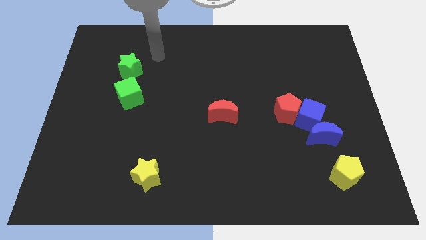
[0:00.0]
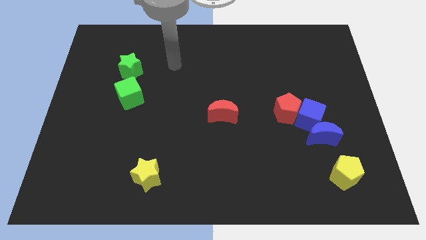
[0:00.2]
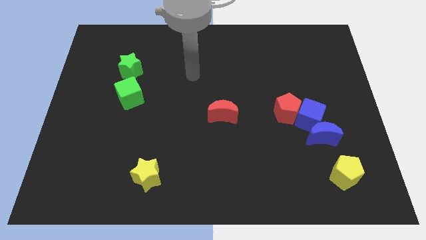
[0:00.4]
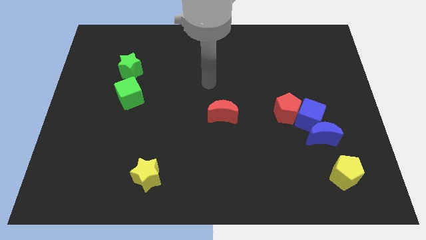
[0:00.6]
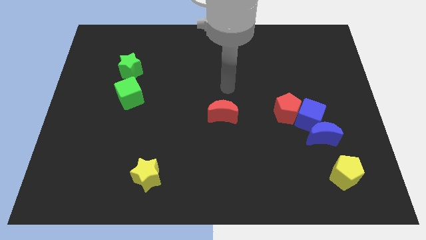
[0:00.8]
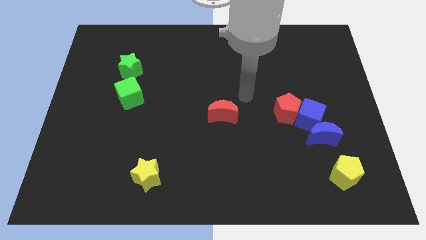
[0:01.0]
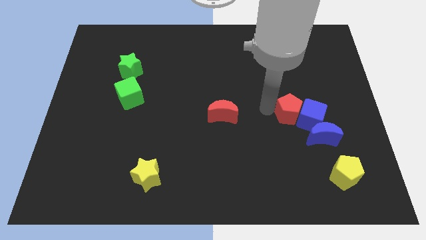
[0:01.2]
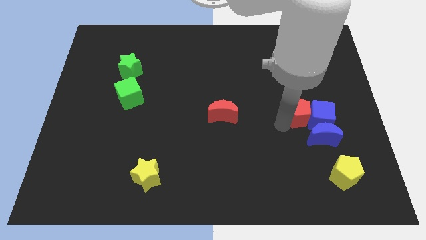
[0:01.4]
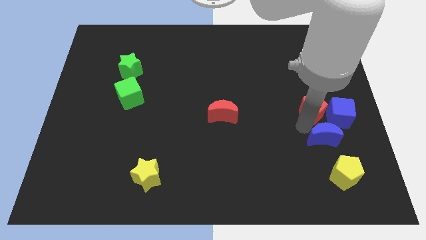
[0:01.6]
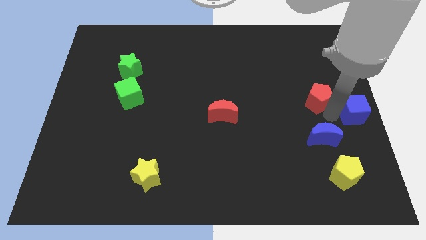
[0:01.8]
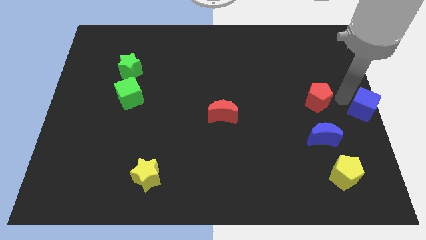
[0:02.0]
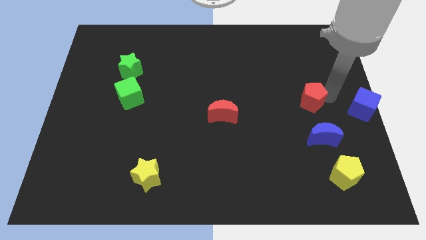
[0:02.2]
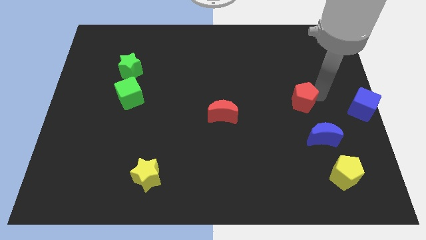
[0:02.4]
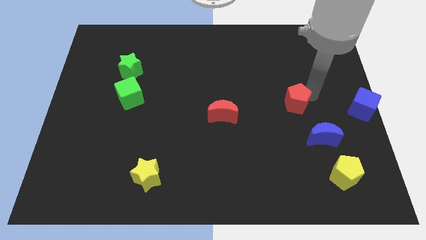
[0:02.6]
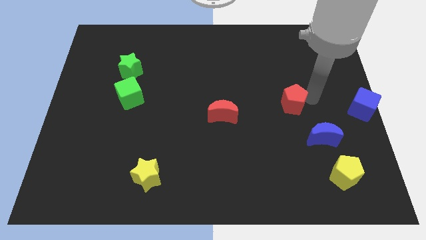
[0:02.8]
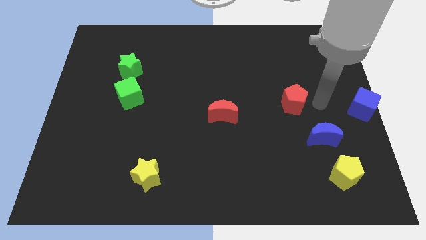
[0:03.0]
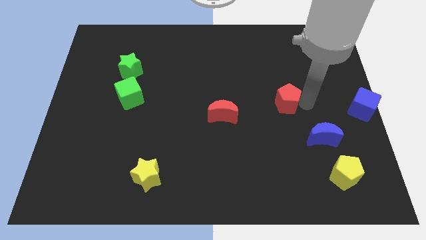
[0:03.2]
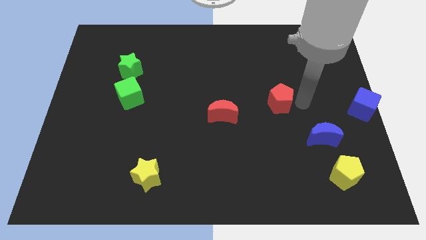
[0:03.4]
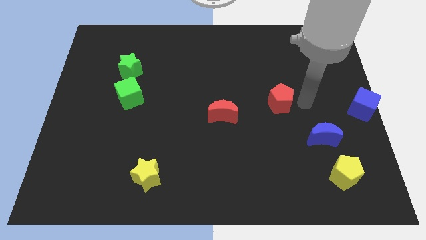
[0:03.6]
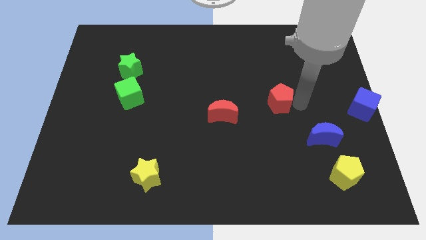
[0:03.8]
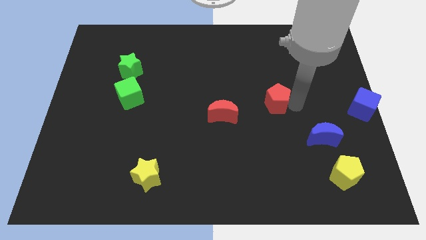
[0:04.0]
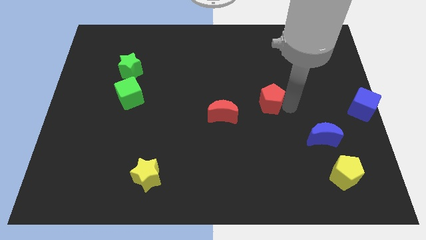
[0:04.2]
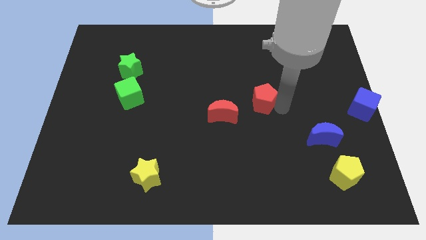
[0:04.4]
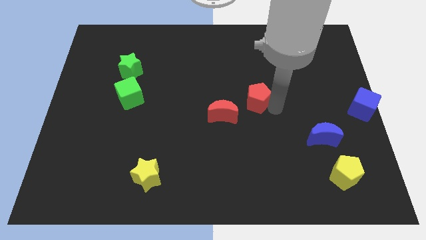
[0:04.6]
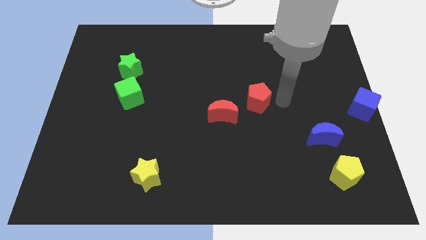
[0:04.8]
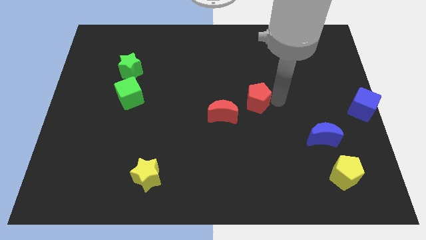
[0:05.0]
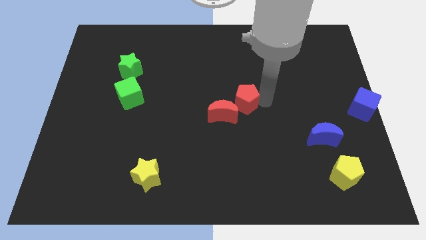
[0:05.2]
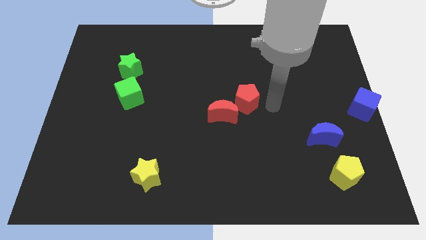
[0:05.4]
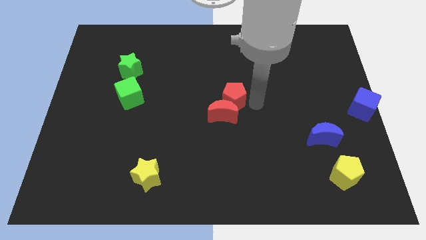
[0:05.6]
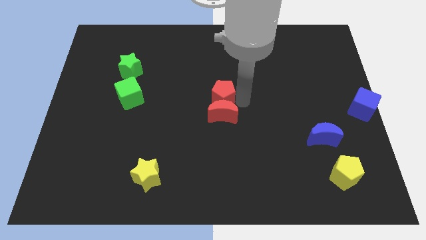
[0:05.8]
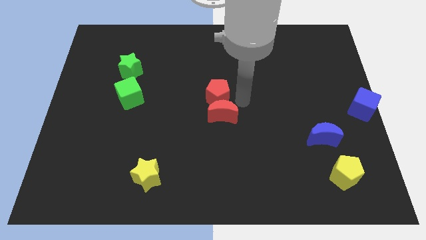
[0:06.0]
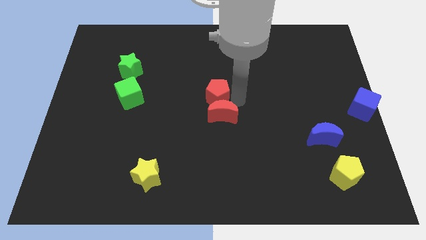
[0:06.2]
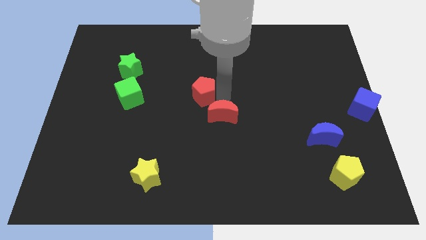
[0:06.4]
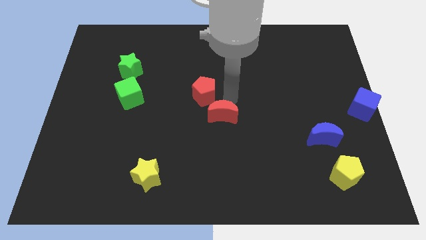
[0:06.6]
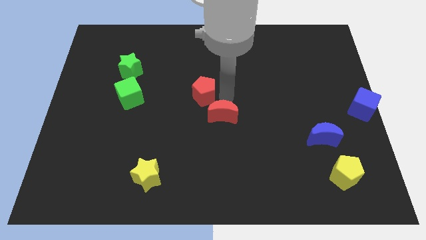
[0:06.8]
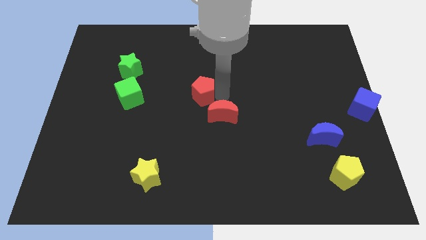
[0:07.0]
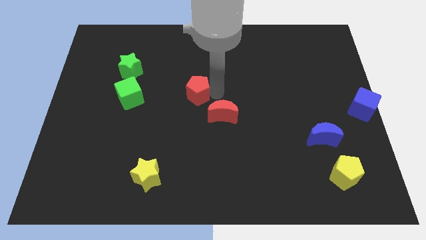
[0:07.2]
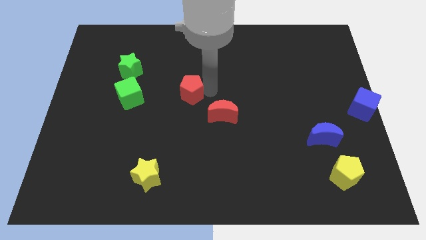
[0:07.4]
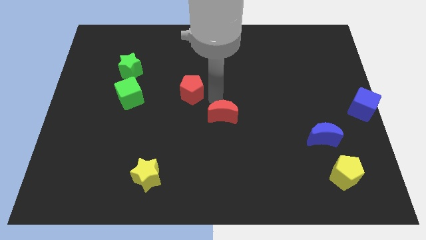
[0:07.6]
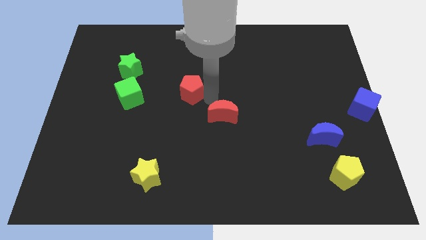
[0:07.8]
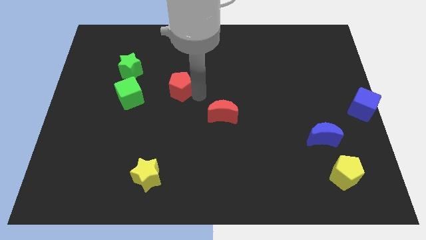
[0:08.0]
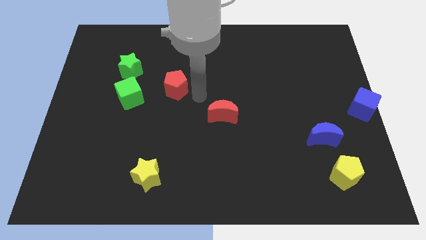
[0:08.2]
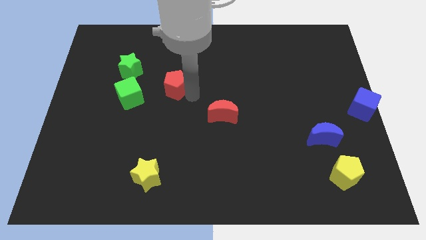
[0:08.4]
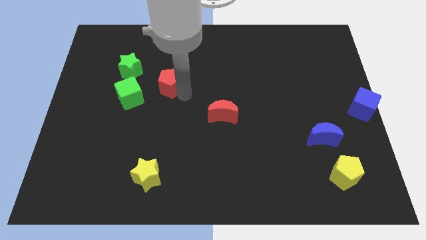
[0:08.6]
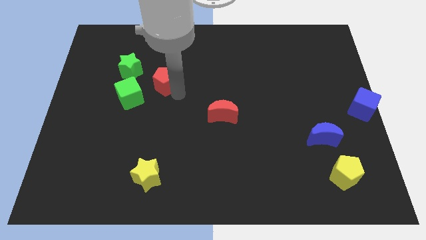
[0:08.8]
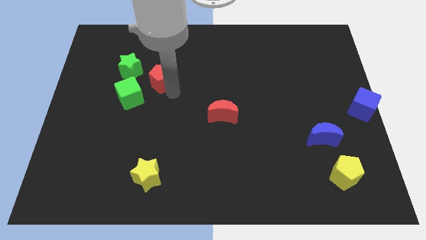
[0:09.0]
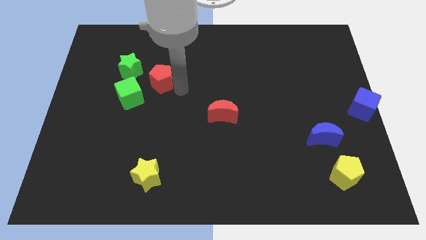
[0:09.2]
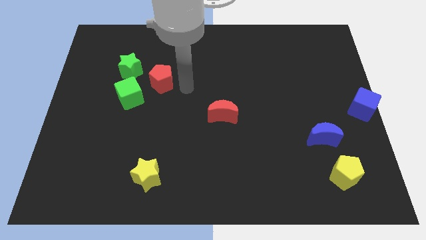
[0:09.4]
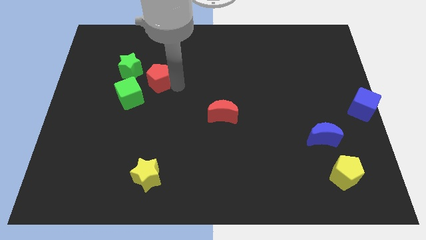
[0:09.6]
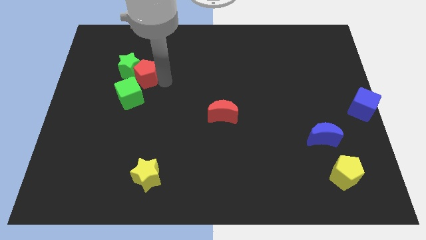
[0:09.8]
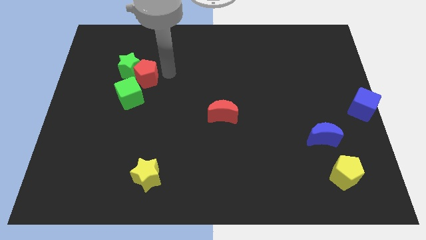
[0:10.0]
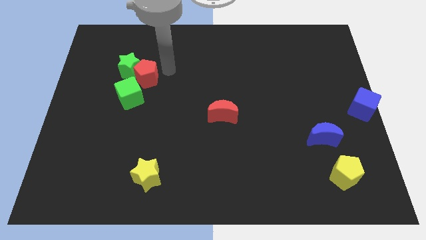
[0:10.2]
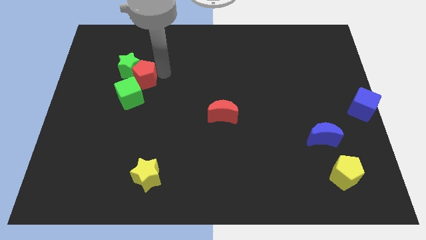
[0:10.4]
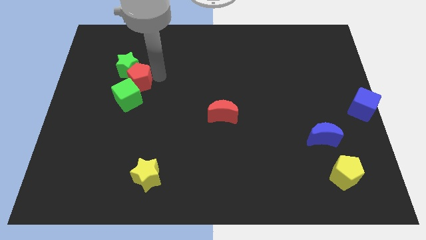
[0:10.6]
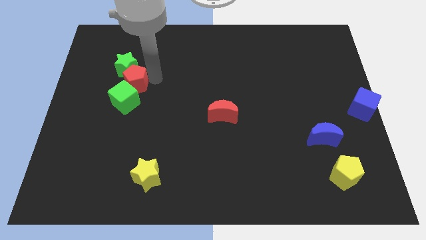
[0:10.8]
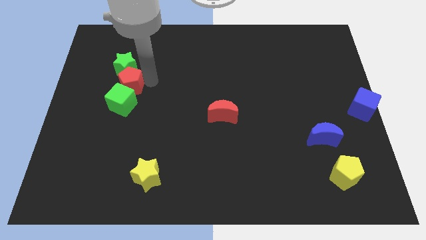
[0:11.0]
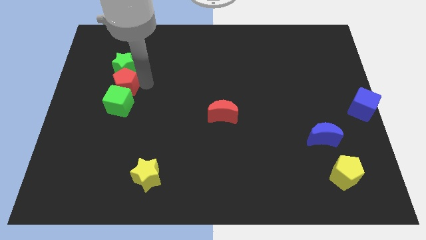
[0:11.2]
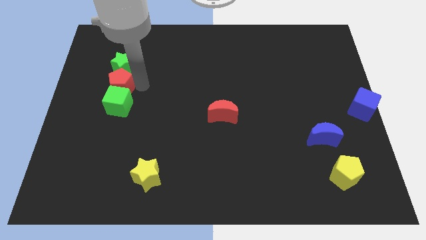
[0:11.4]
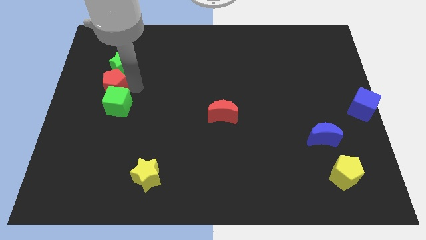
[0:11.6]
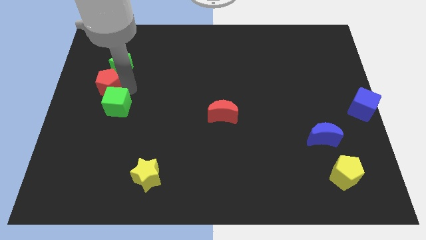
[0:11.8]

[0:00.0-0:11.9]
slide the red pentagon to the center left
